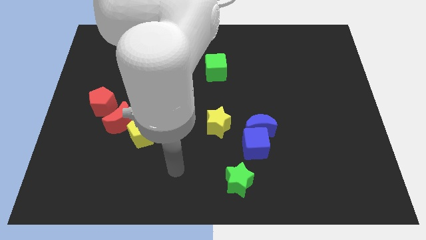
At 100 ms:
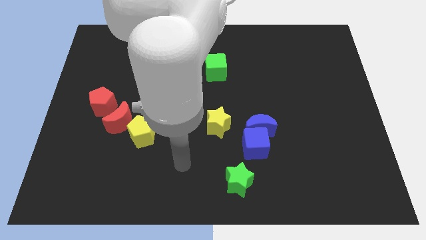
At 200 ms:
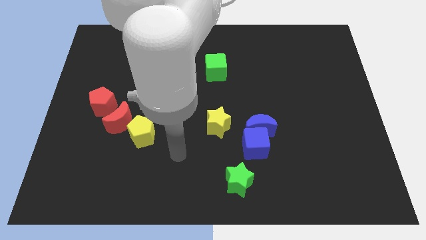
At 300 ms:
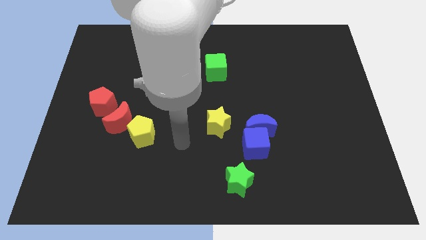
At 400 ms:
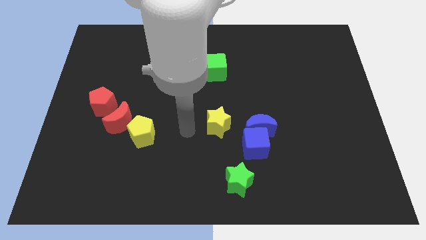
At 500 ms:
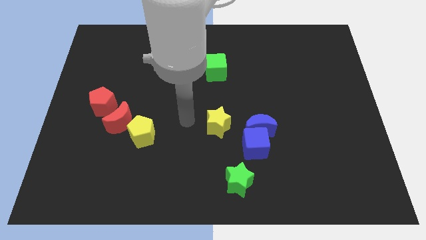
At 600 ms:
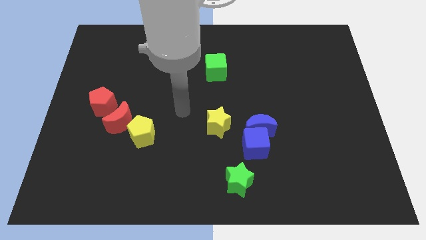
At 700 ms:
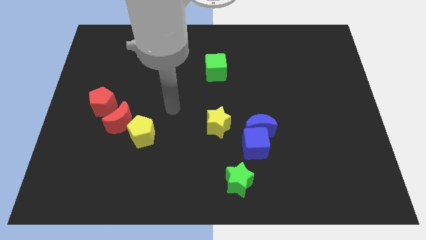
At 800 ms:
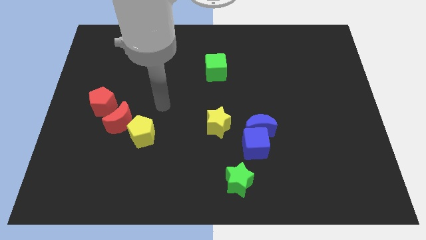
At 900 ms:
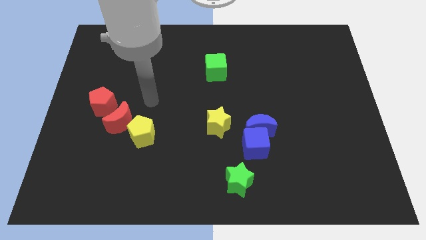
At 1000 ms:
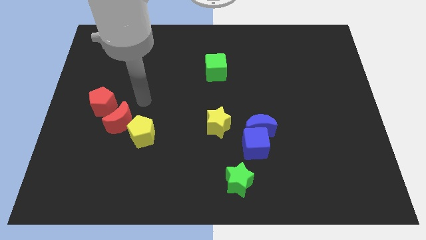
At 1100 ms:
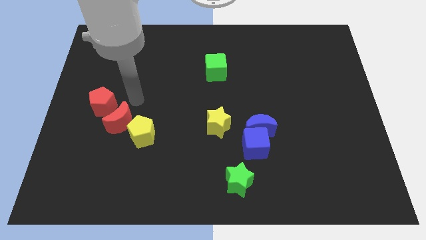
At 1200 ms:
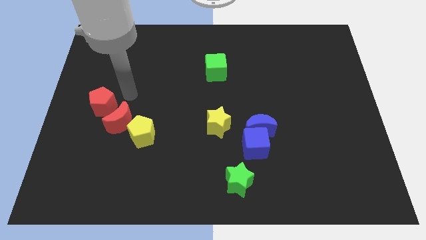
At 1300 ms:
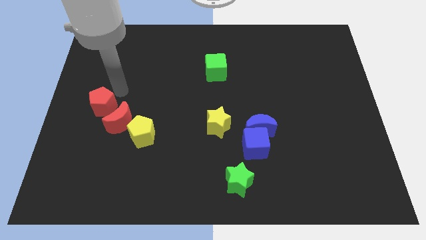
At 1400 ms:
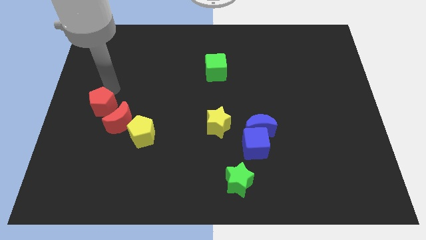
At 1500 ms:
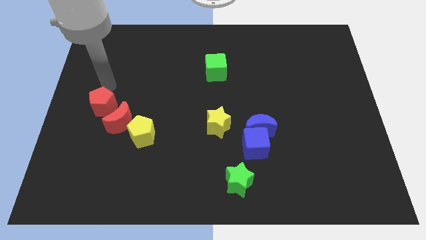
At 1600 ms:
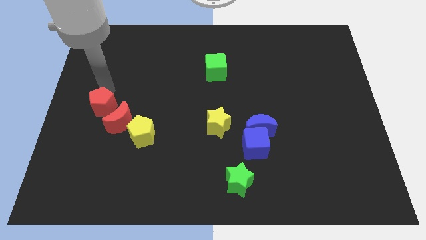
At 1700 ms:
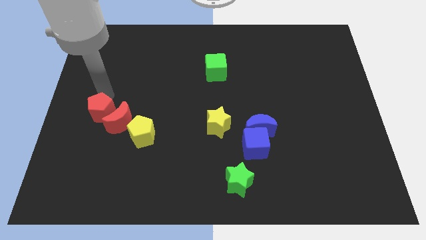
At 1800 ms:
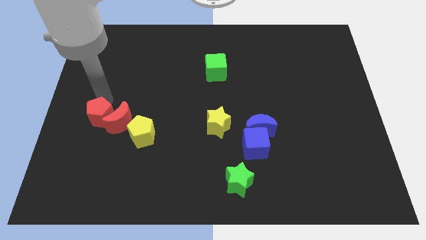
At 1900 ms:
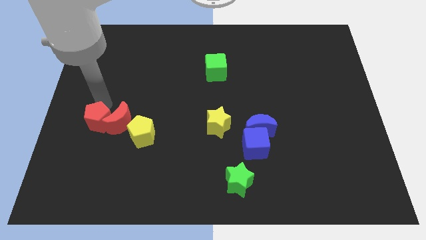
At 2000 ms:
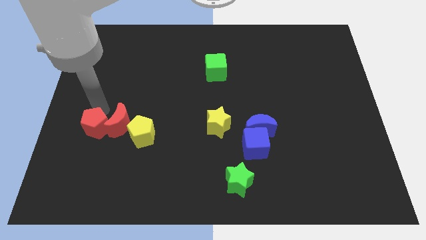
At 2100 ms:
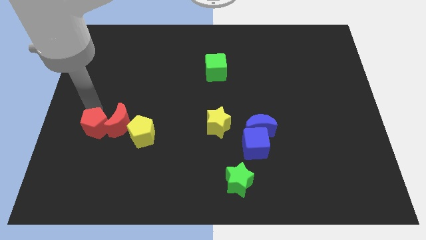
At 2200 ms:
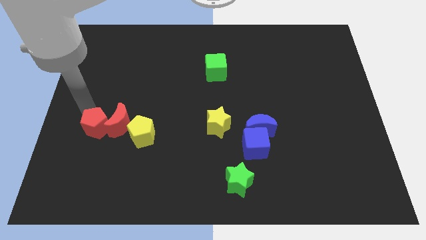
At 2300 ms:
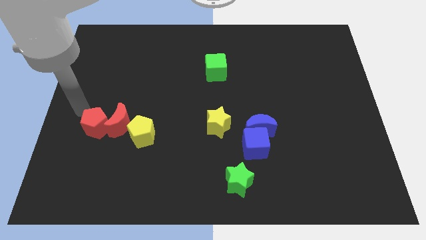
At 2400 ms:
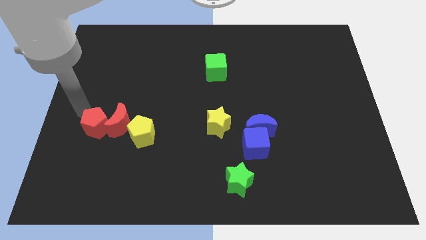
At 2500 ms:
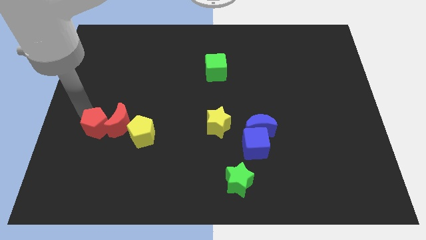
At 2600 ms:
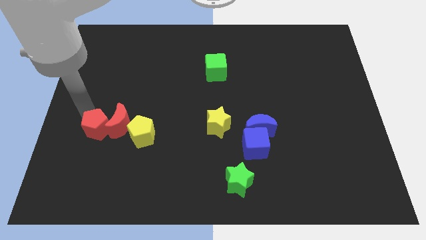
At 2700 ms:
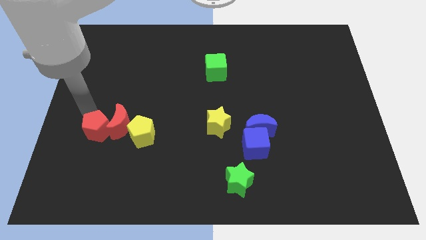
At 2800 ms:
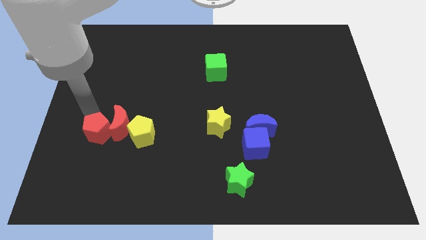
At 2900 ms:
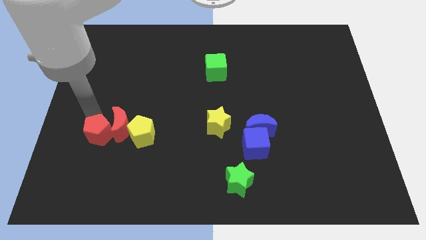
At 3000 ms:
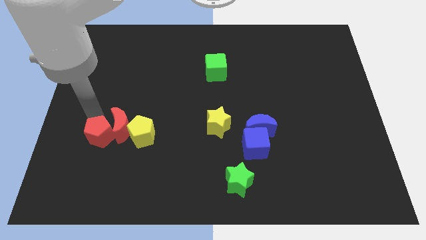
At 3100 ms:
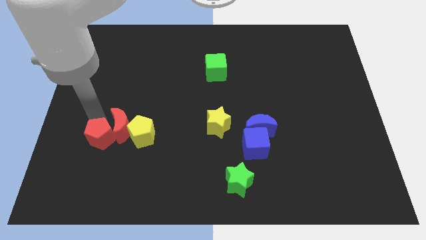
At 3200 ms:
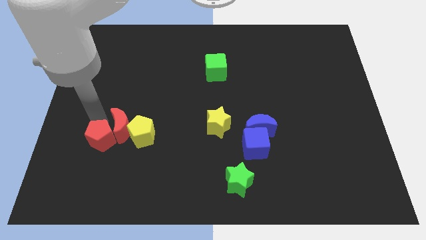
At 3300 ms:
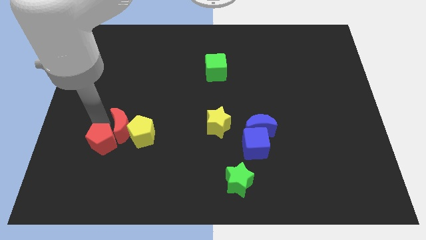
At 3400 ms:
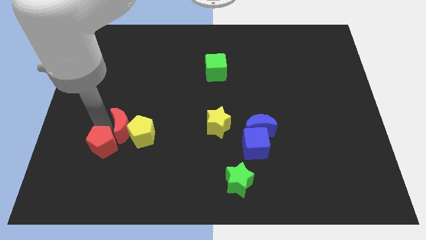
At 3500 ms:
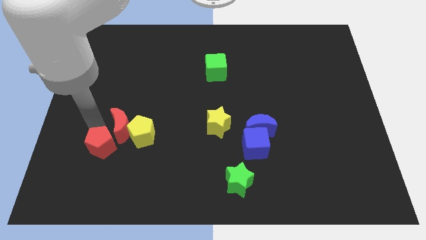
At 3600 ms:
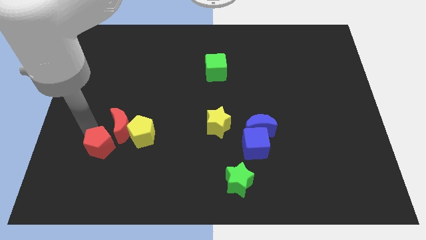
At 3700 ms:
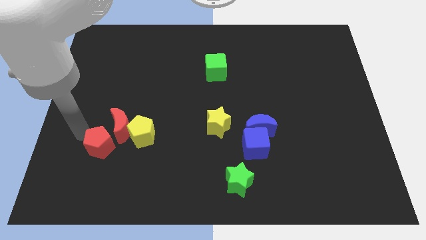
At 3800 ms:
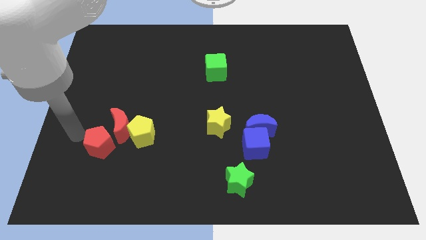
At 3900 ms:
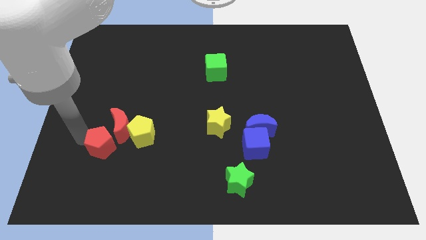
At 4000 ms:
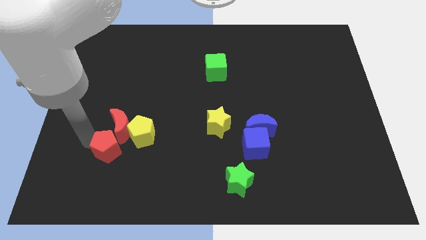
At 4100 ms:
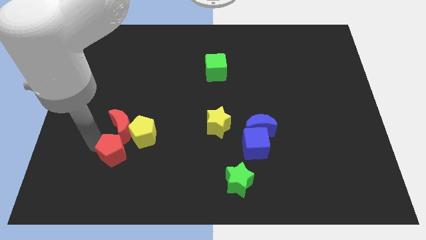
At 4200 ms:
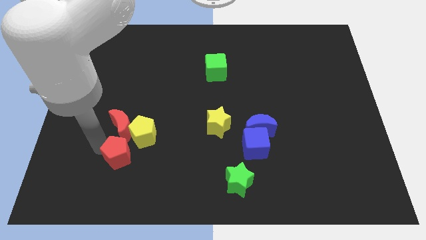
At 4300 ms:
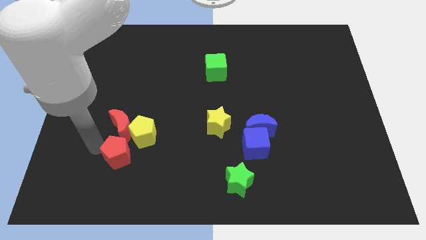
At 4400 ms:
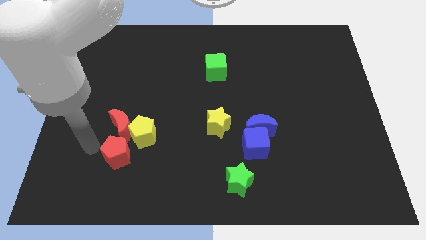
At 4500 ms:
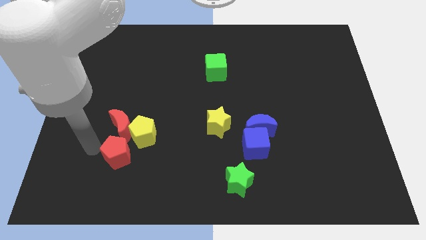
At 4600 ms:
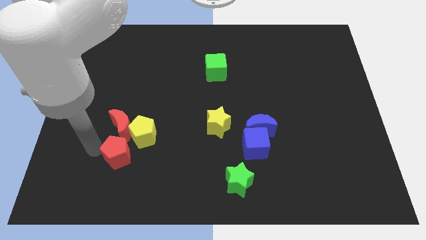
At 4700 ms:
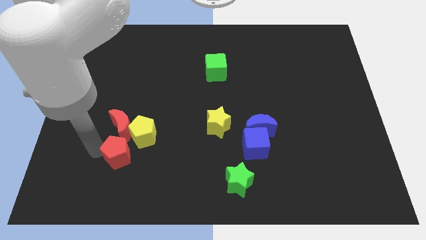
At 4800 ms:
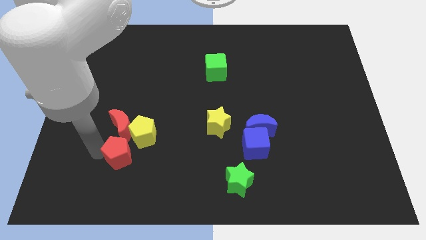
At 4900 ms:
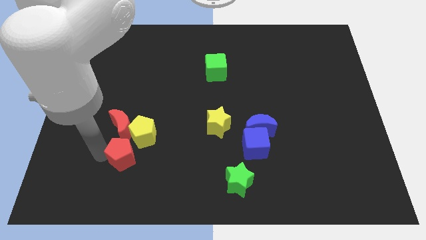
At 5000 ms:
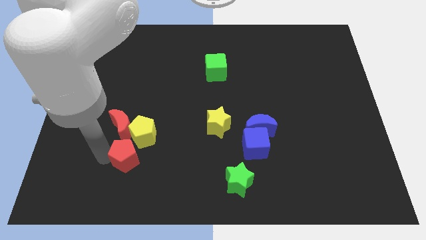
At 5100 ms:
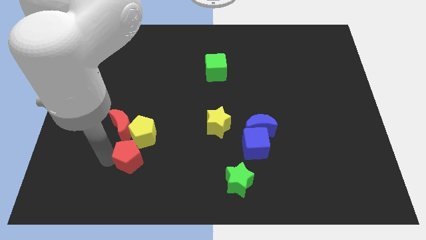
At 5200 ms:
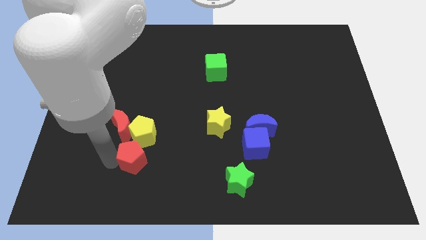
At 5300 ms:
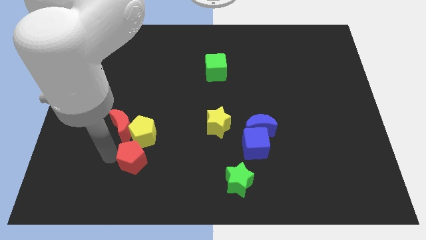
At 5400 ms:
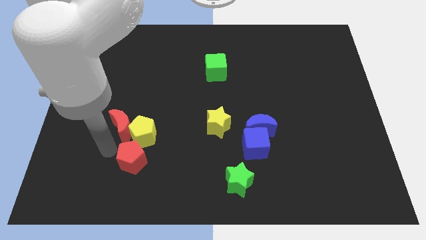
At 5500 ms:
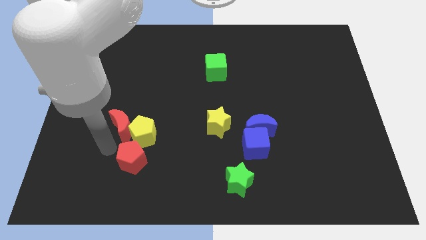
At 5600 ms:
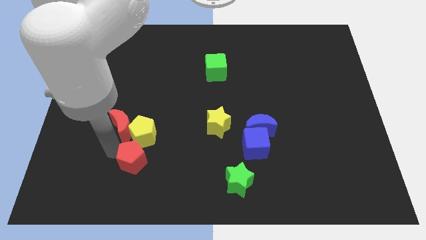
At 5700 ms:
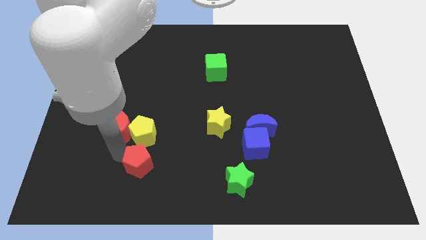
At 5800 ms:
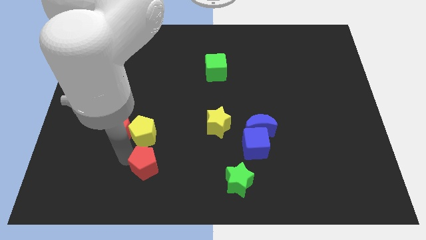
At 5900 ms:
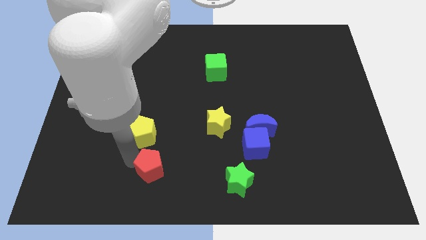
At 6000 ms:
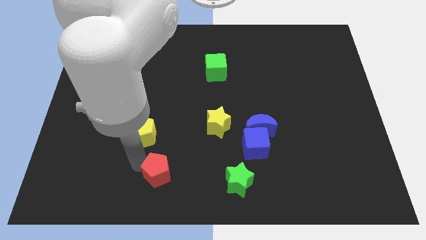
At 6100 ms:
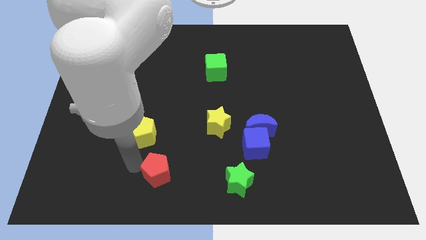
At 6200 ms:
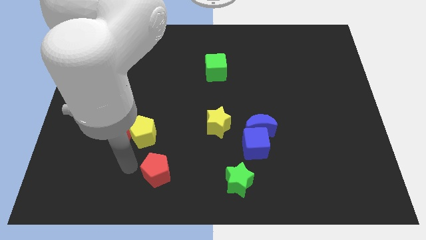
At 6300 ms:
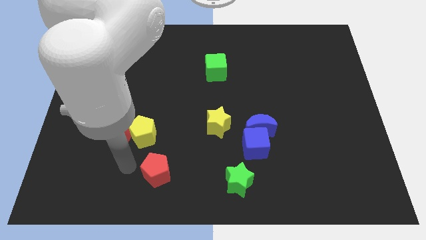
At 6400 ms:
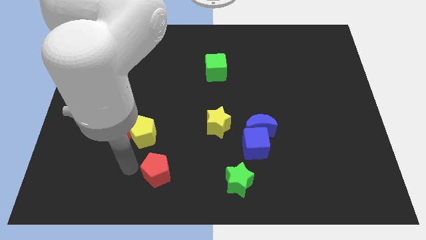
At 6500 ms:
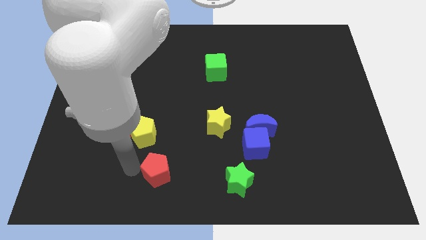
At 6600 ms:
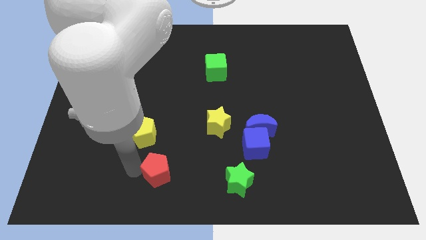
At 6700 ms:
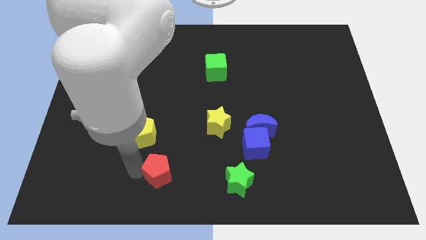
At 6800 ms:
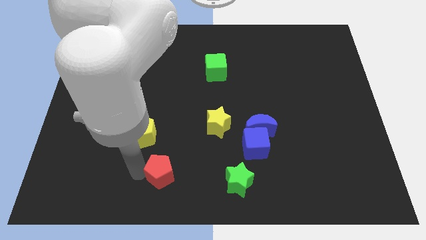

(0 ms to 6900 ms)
put the red pentagon to the bottom side

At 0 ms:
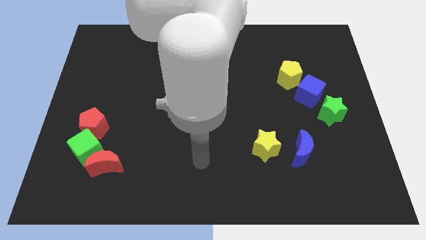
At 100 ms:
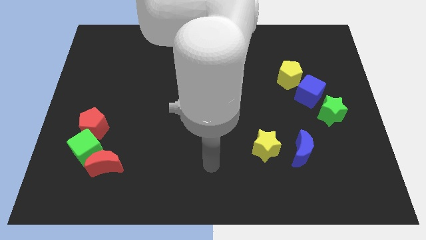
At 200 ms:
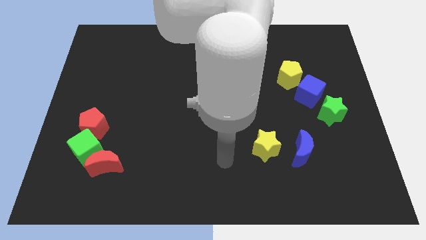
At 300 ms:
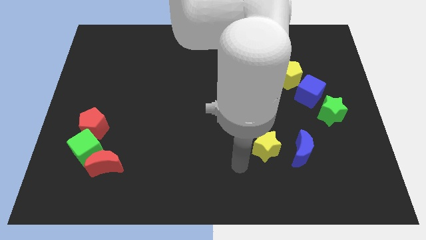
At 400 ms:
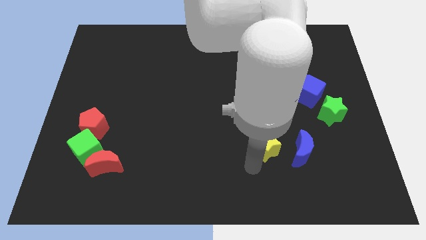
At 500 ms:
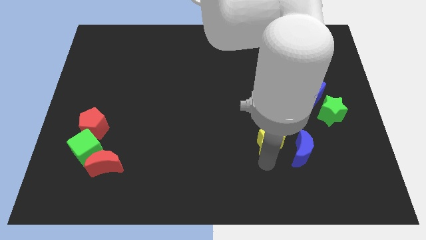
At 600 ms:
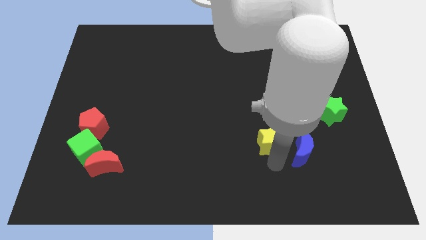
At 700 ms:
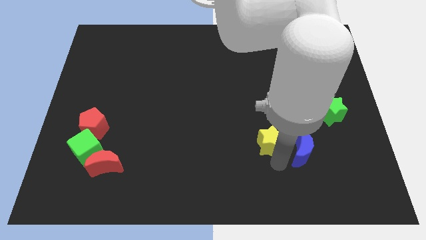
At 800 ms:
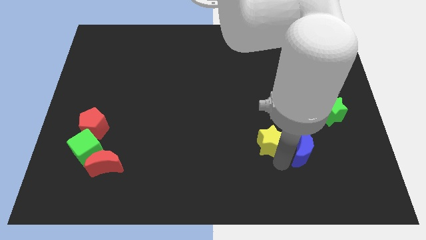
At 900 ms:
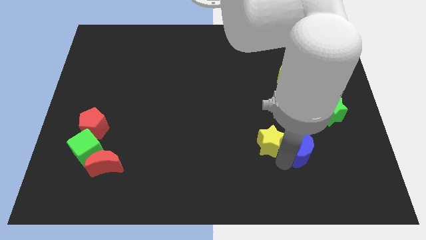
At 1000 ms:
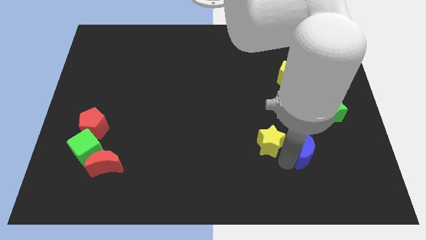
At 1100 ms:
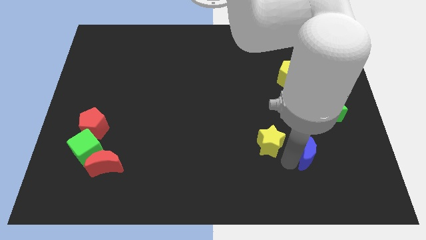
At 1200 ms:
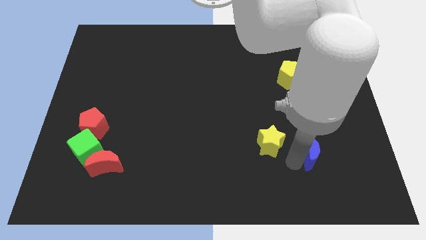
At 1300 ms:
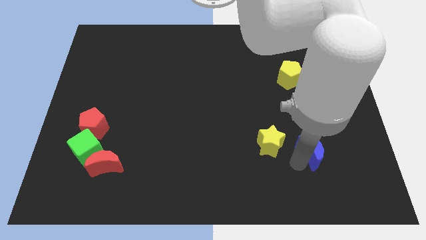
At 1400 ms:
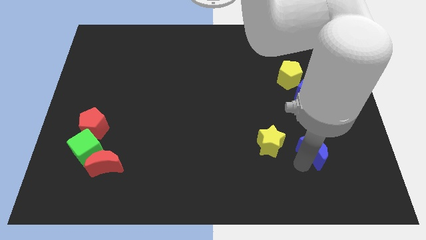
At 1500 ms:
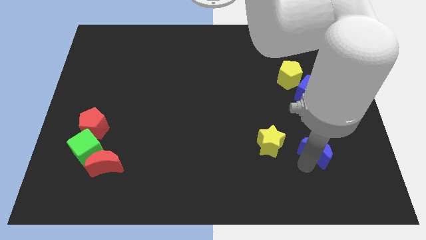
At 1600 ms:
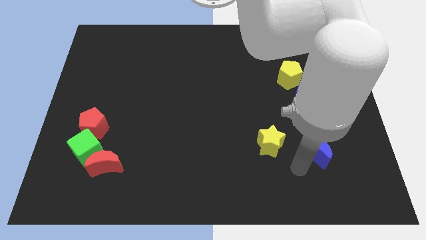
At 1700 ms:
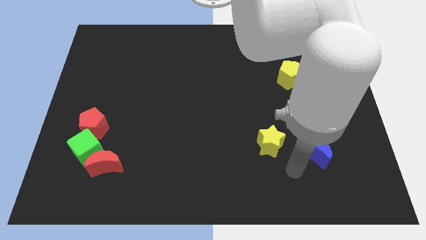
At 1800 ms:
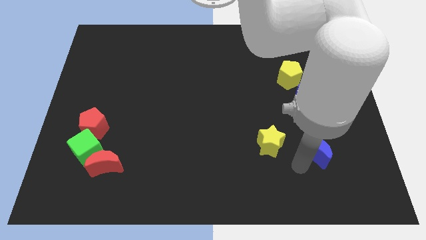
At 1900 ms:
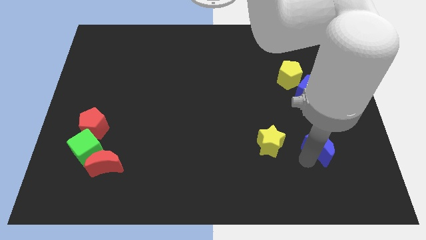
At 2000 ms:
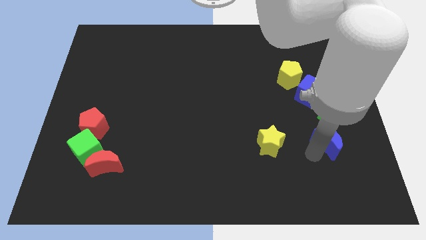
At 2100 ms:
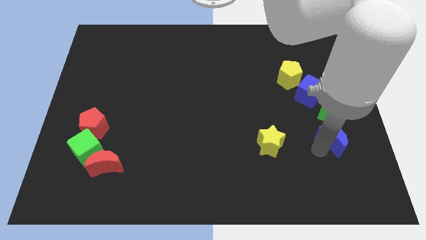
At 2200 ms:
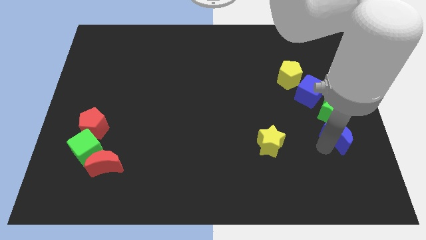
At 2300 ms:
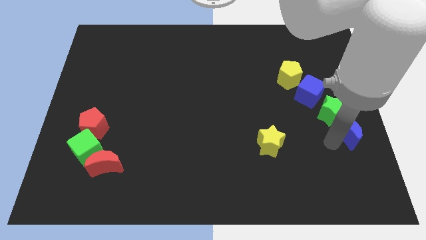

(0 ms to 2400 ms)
push the blue moon to the center right
